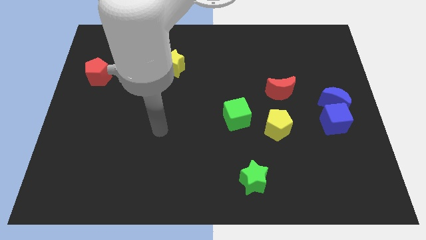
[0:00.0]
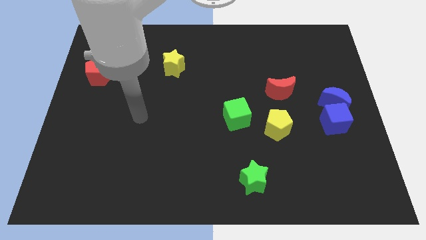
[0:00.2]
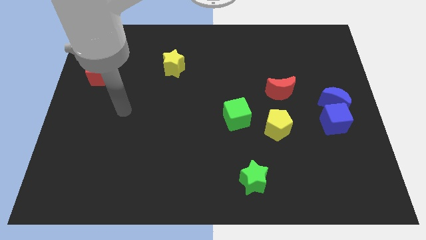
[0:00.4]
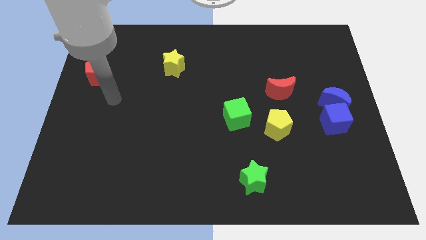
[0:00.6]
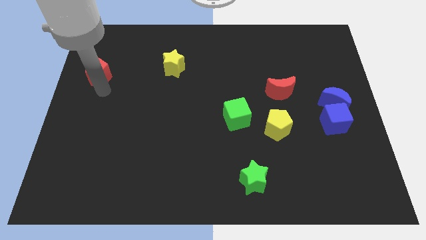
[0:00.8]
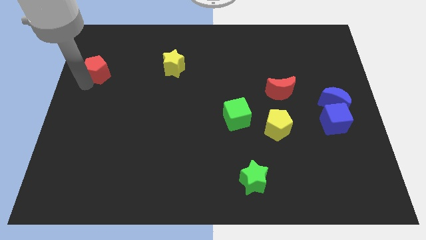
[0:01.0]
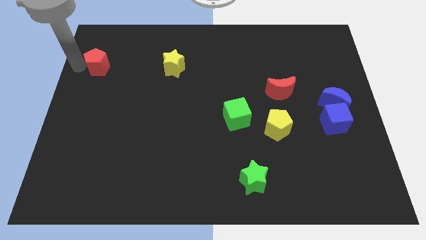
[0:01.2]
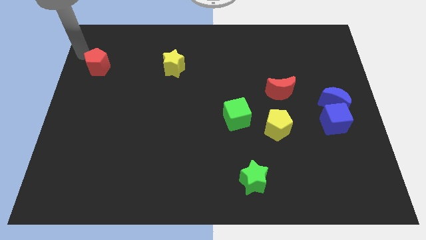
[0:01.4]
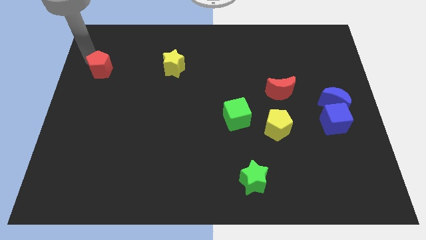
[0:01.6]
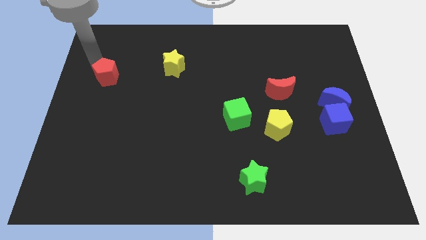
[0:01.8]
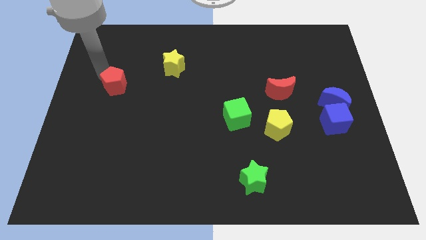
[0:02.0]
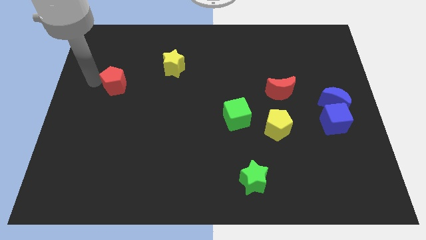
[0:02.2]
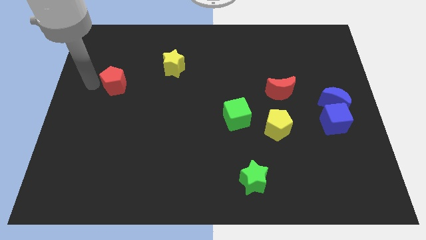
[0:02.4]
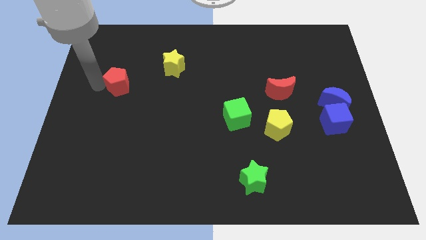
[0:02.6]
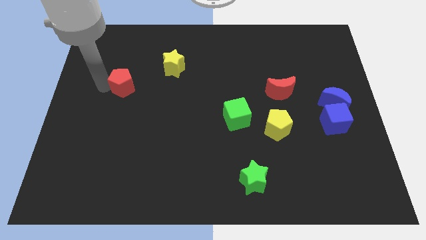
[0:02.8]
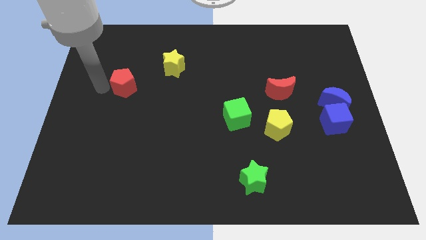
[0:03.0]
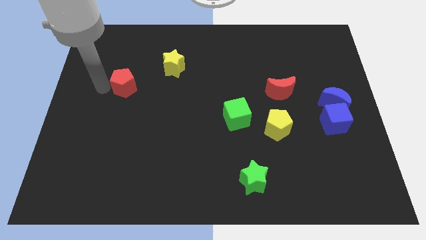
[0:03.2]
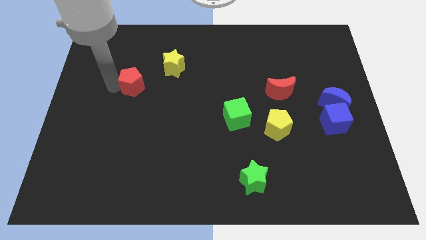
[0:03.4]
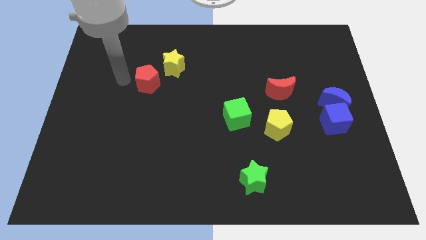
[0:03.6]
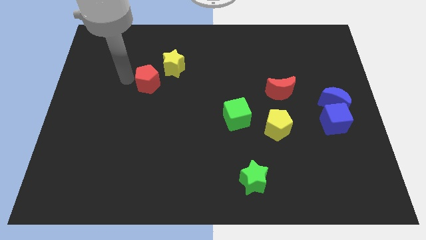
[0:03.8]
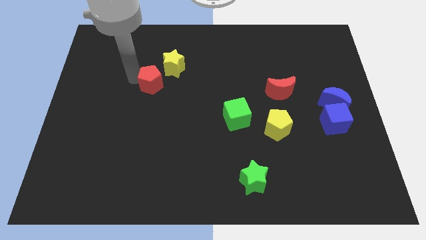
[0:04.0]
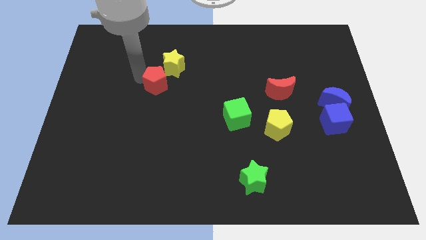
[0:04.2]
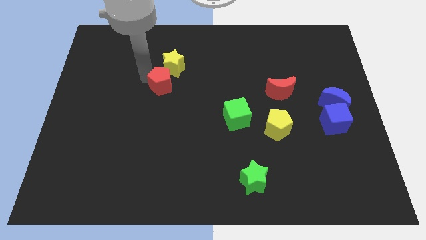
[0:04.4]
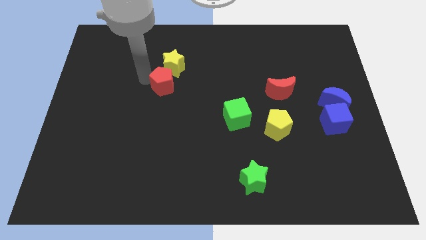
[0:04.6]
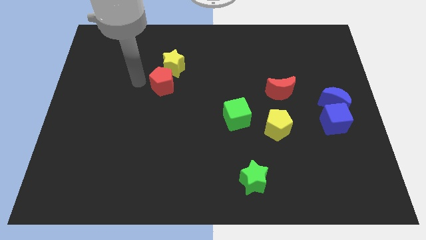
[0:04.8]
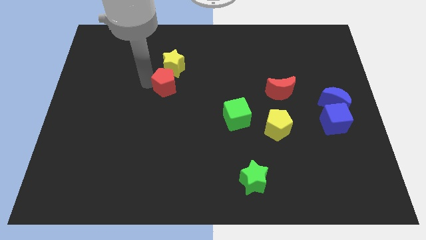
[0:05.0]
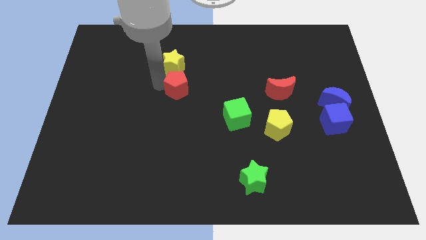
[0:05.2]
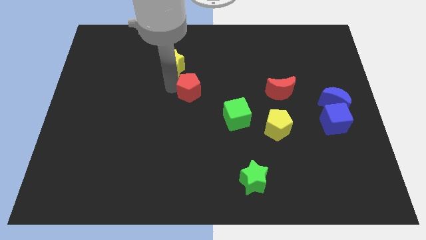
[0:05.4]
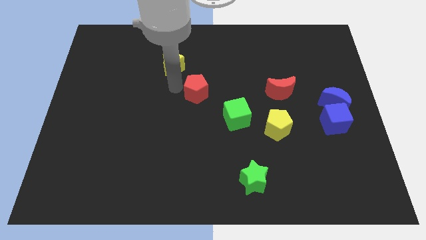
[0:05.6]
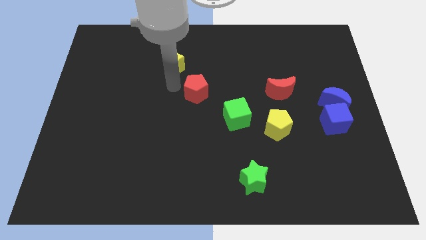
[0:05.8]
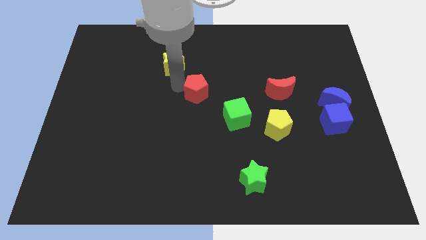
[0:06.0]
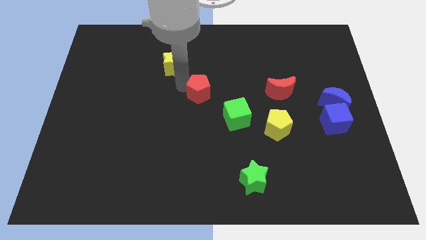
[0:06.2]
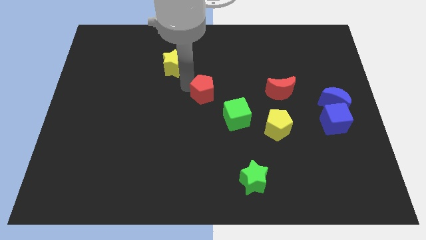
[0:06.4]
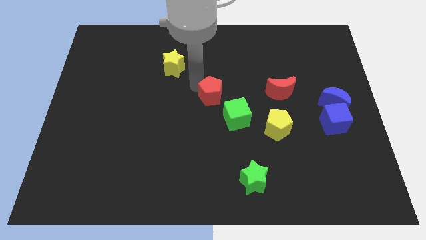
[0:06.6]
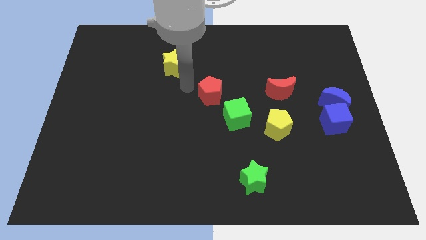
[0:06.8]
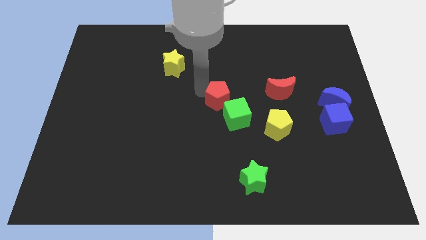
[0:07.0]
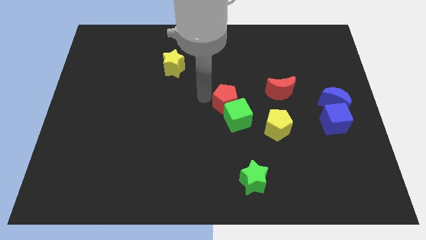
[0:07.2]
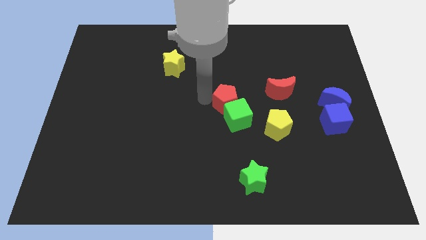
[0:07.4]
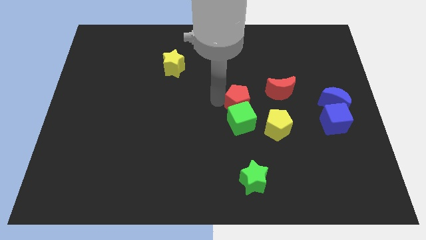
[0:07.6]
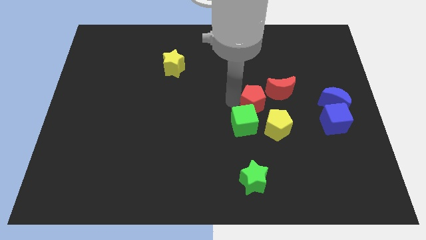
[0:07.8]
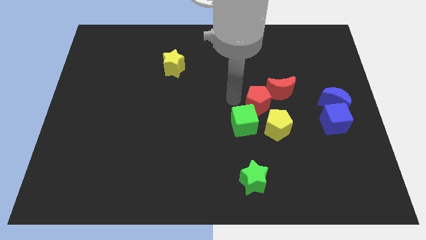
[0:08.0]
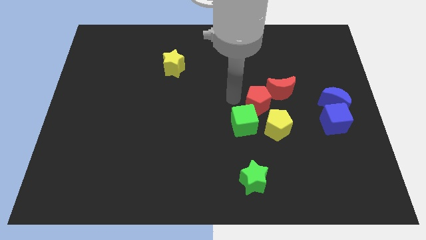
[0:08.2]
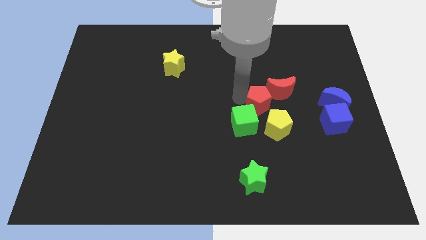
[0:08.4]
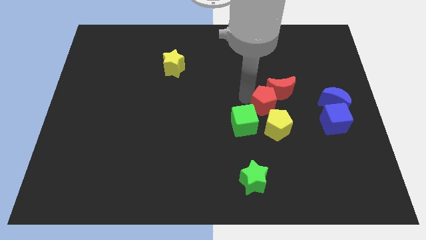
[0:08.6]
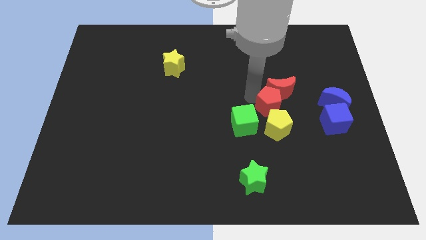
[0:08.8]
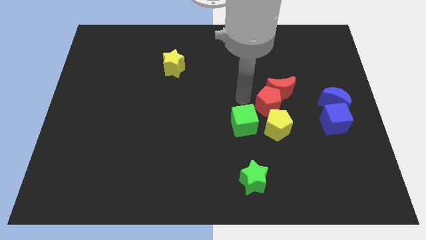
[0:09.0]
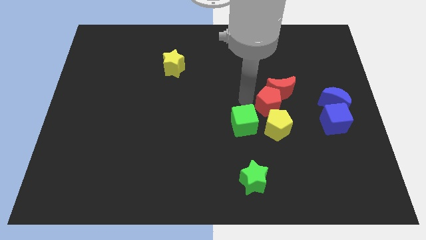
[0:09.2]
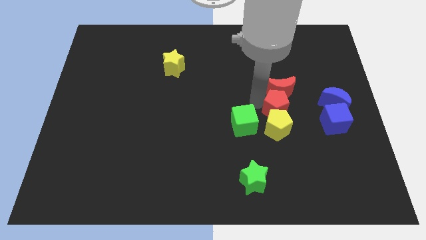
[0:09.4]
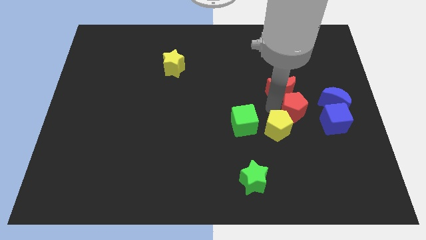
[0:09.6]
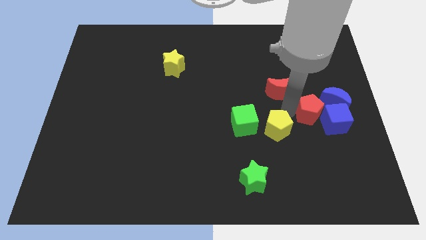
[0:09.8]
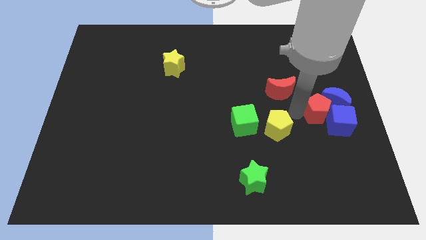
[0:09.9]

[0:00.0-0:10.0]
push the red pentagon to the blue moon

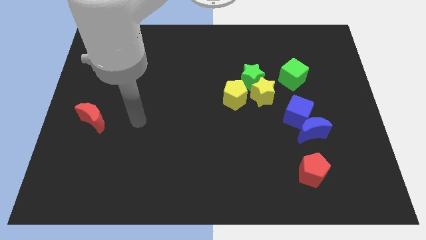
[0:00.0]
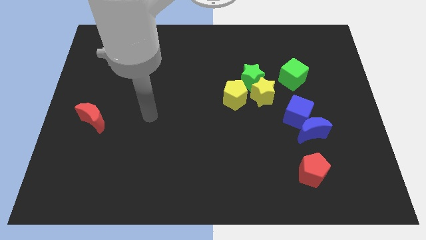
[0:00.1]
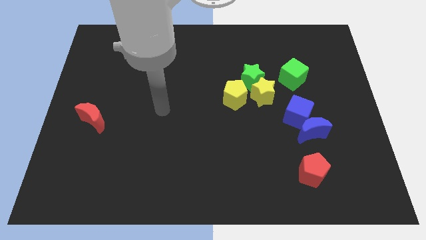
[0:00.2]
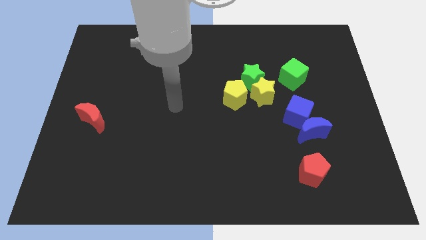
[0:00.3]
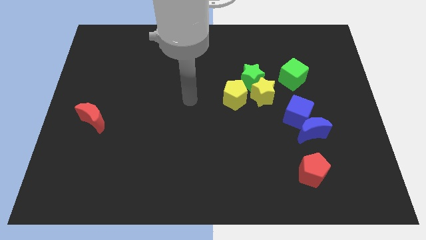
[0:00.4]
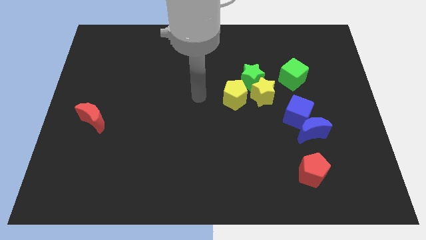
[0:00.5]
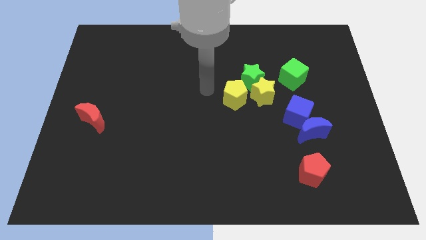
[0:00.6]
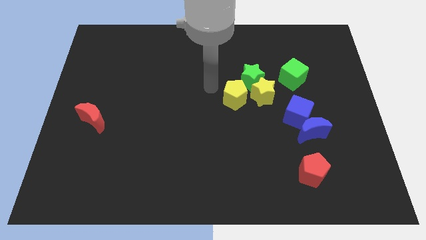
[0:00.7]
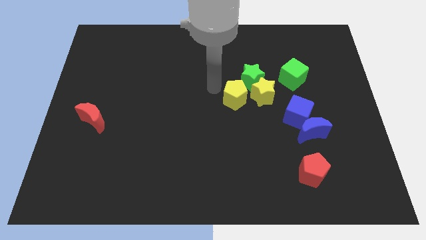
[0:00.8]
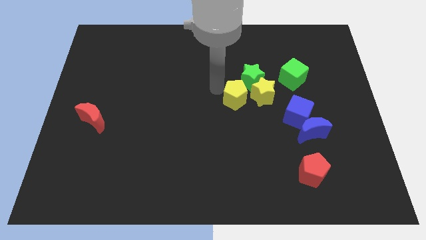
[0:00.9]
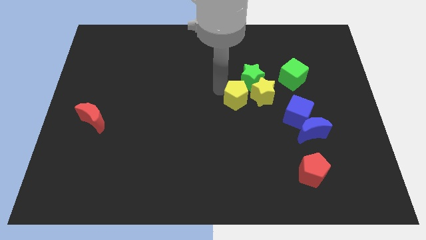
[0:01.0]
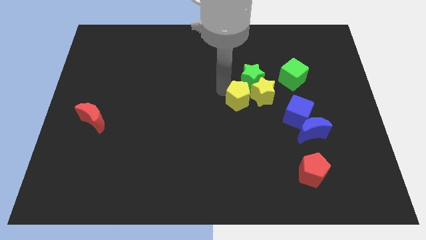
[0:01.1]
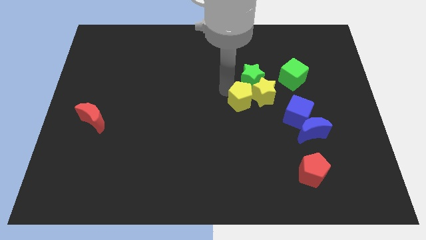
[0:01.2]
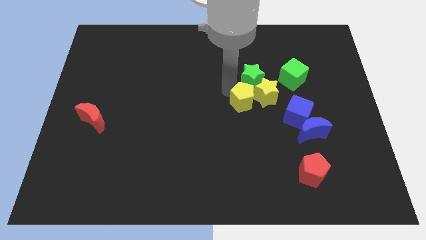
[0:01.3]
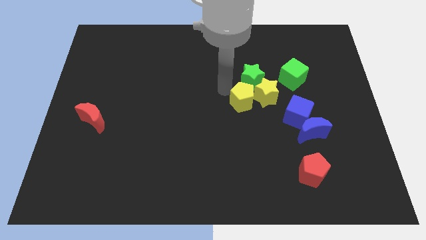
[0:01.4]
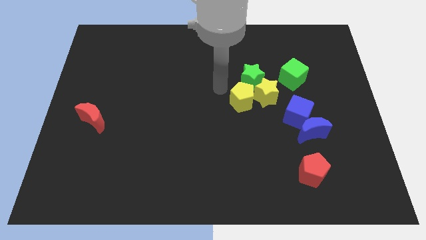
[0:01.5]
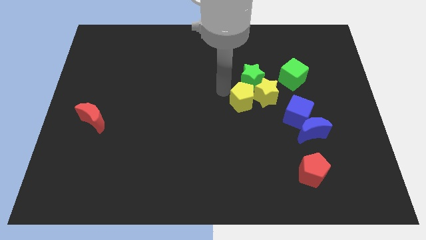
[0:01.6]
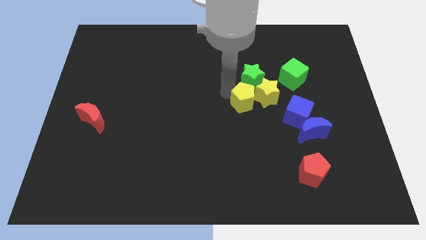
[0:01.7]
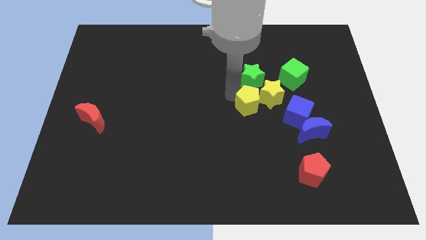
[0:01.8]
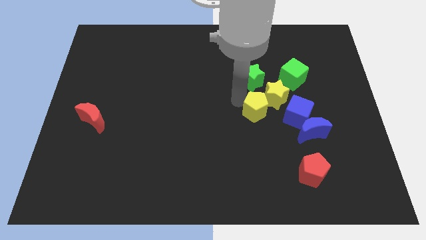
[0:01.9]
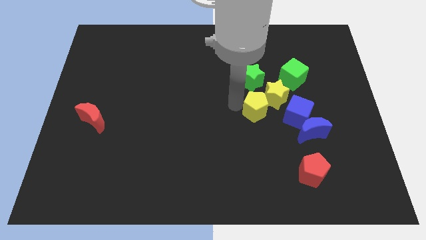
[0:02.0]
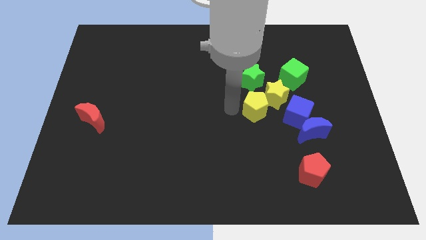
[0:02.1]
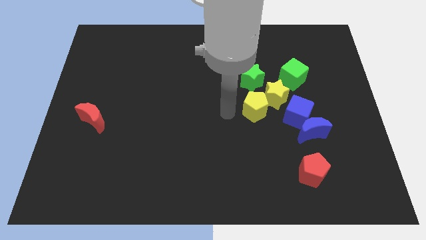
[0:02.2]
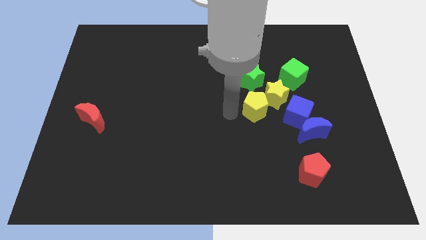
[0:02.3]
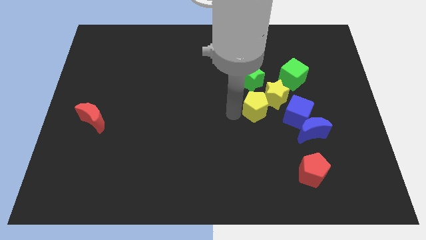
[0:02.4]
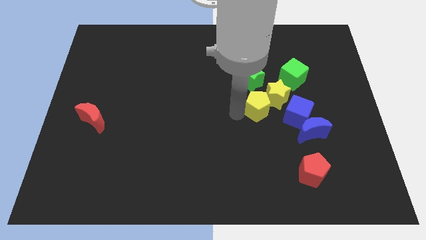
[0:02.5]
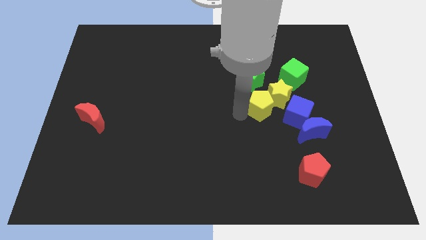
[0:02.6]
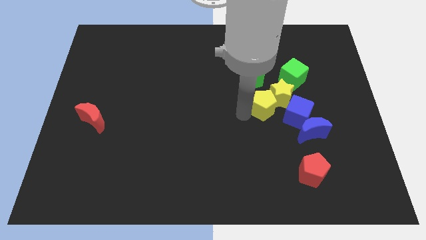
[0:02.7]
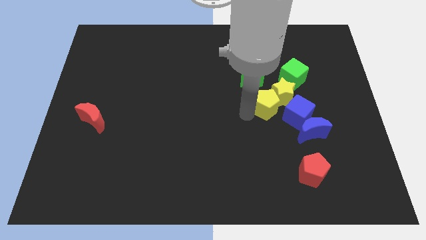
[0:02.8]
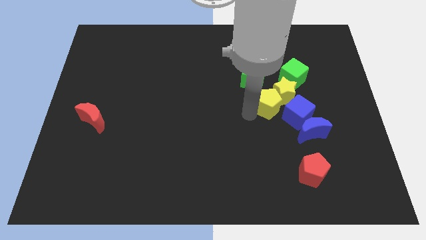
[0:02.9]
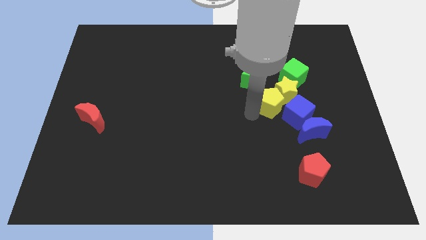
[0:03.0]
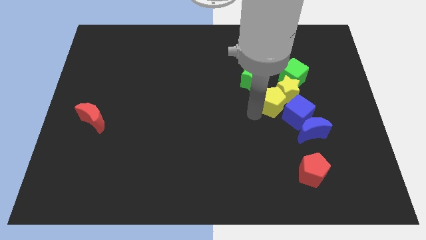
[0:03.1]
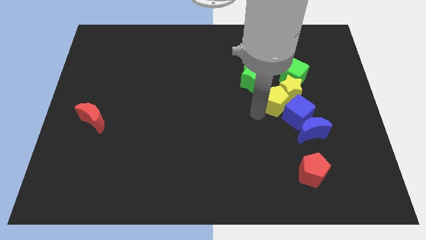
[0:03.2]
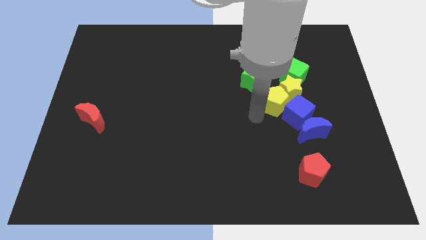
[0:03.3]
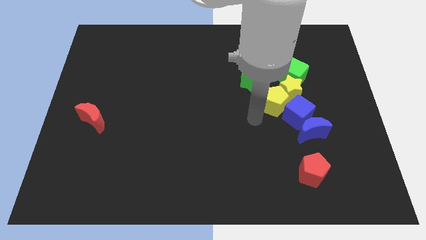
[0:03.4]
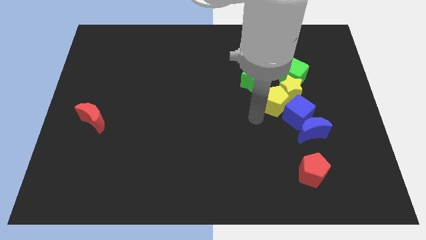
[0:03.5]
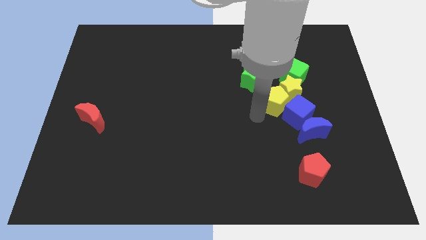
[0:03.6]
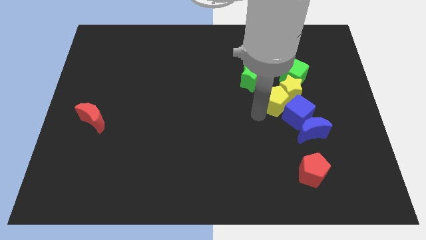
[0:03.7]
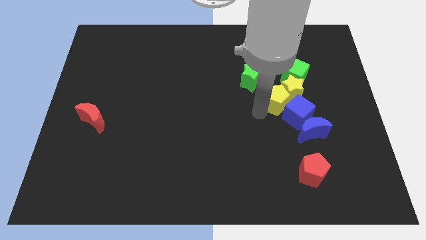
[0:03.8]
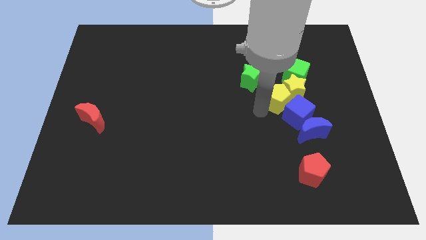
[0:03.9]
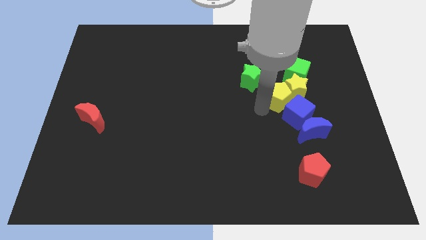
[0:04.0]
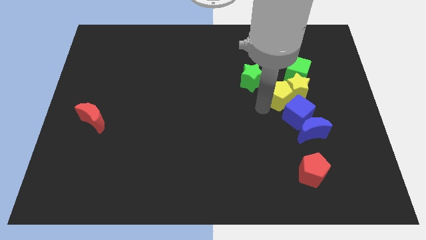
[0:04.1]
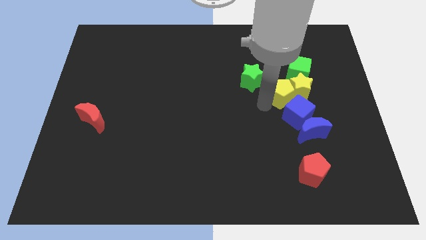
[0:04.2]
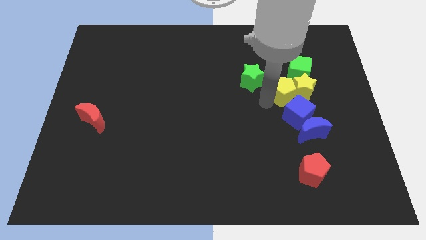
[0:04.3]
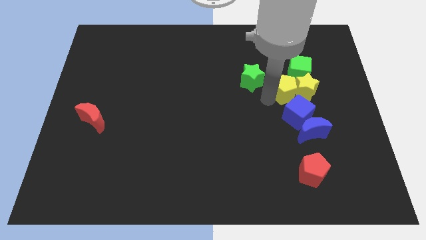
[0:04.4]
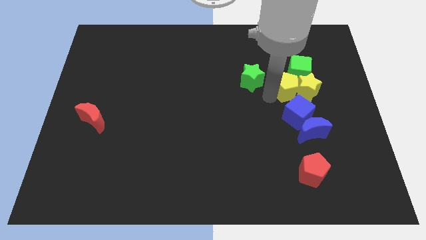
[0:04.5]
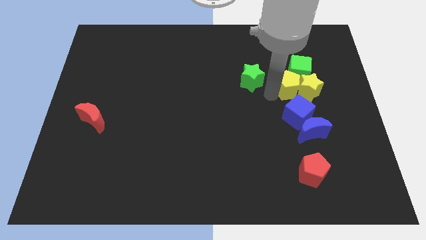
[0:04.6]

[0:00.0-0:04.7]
push the yellow pentagon to the green cube
